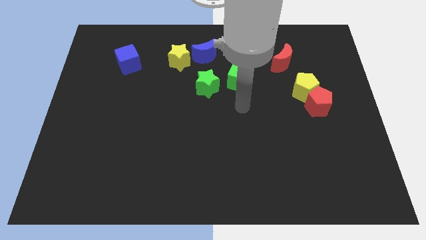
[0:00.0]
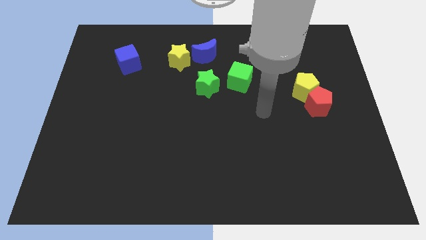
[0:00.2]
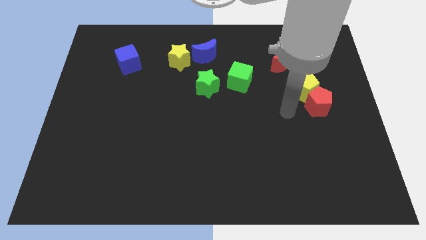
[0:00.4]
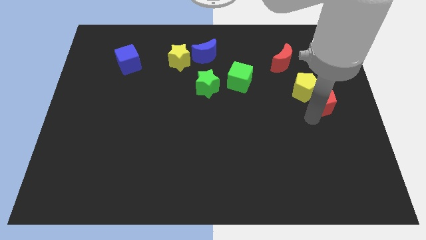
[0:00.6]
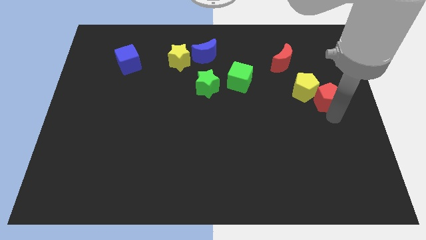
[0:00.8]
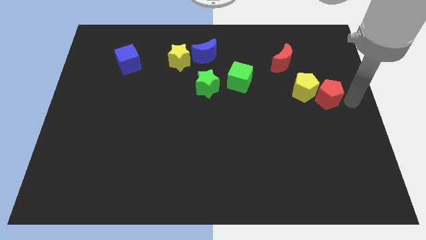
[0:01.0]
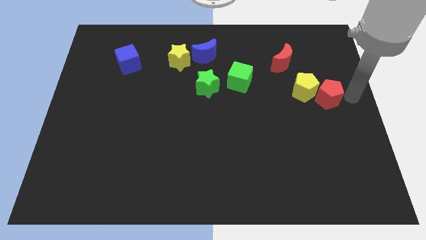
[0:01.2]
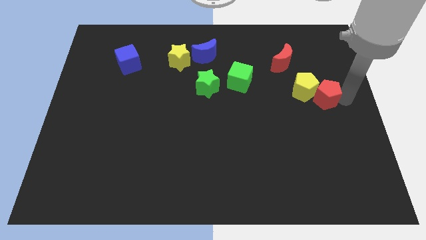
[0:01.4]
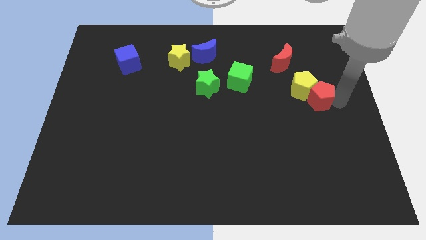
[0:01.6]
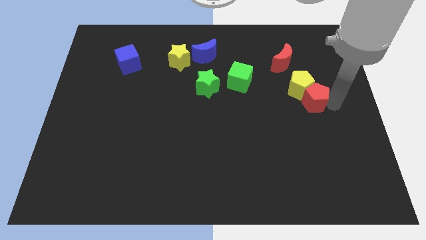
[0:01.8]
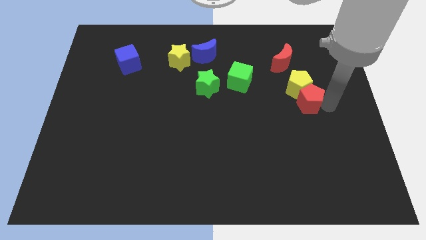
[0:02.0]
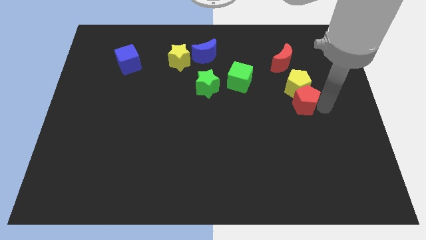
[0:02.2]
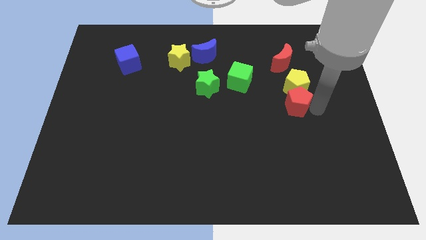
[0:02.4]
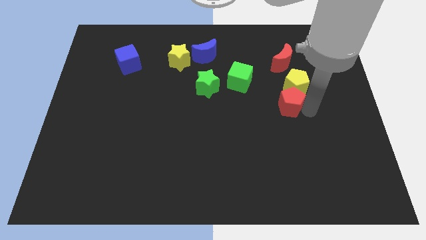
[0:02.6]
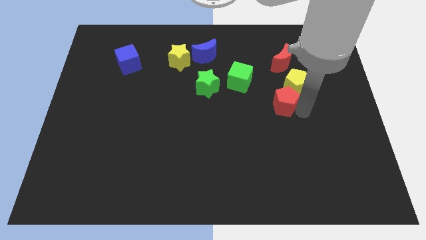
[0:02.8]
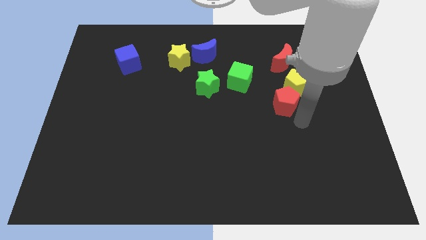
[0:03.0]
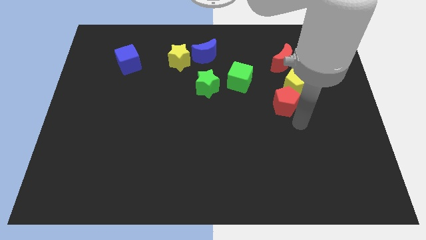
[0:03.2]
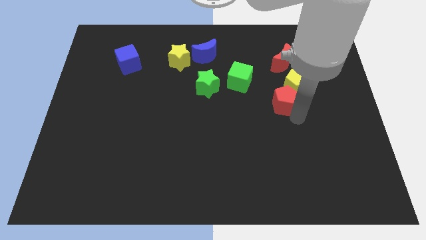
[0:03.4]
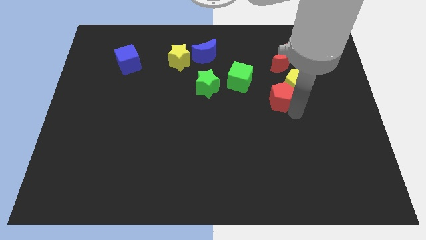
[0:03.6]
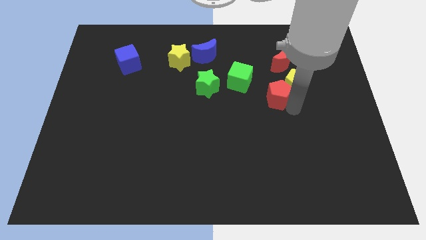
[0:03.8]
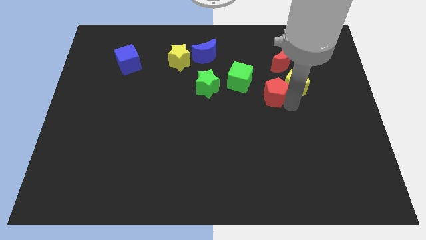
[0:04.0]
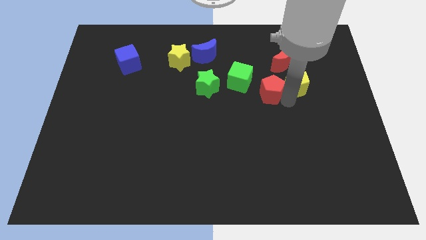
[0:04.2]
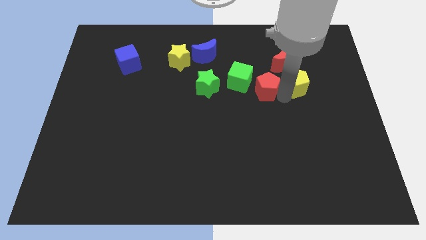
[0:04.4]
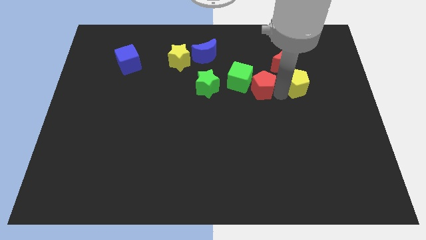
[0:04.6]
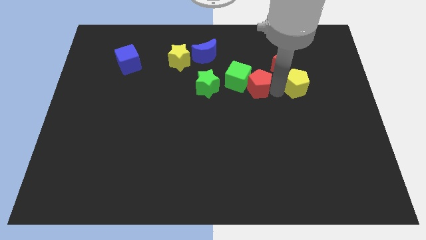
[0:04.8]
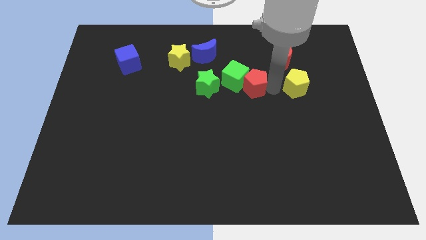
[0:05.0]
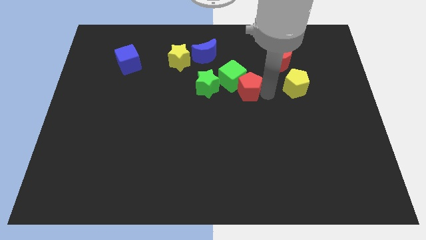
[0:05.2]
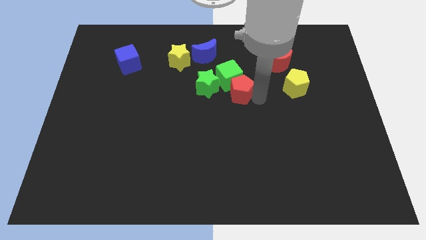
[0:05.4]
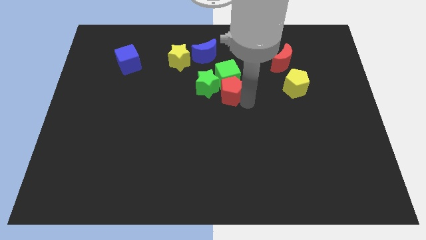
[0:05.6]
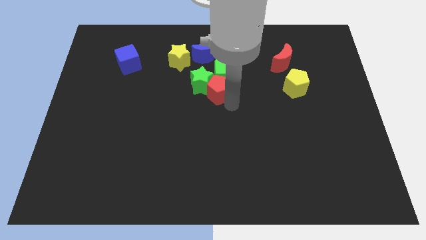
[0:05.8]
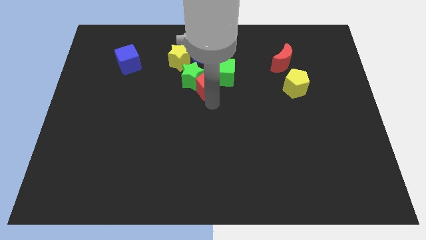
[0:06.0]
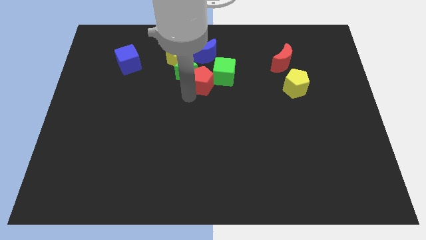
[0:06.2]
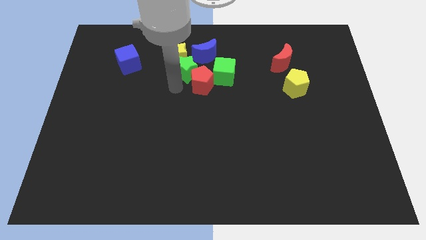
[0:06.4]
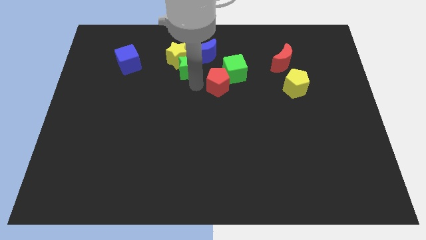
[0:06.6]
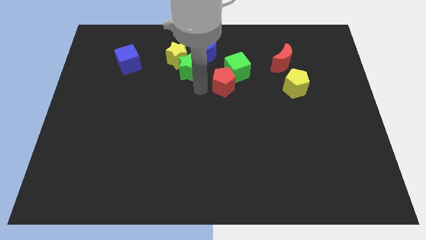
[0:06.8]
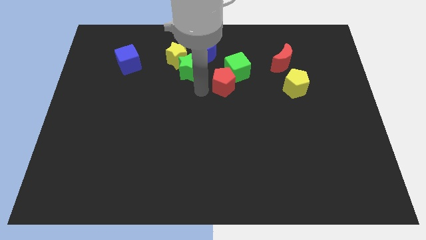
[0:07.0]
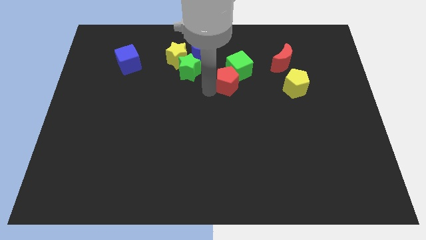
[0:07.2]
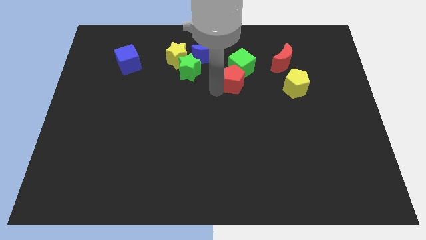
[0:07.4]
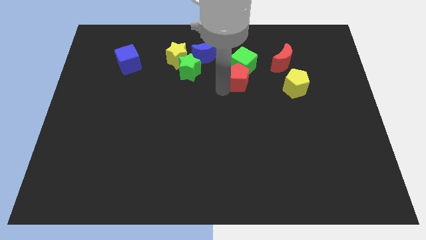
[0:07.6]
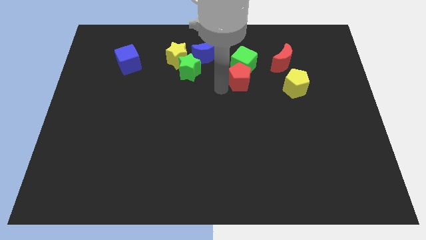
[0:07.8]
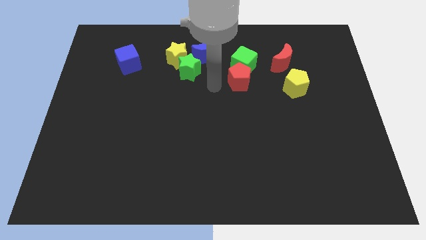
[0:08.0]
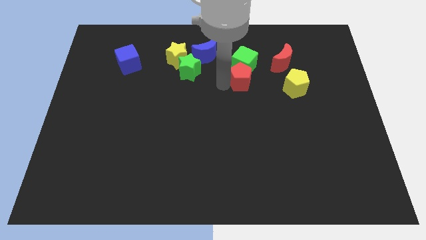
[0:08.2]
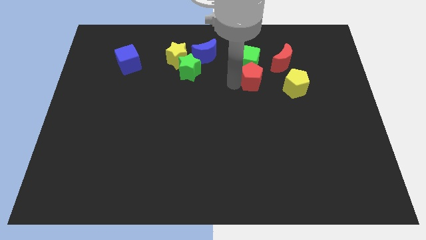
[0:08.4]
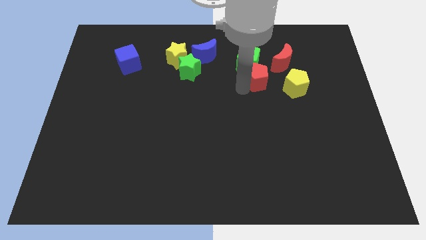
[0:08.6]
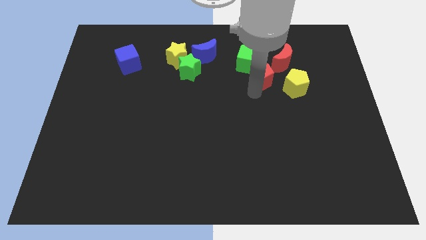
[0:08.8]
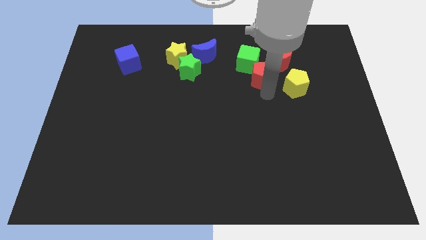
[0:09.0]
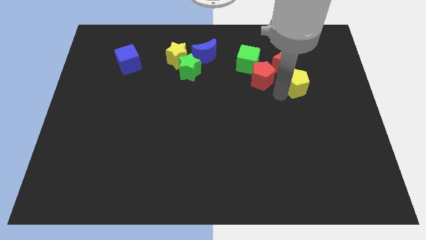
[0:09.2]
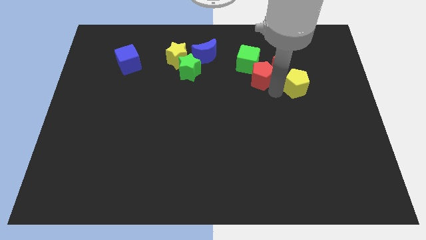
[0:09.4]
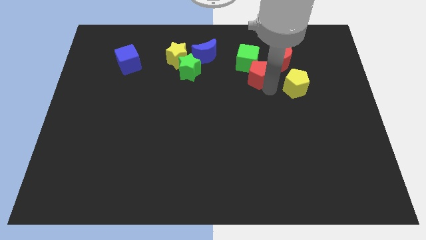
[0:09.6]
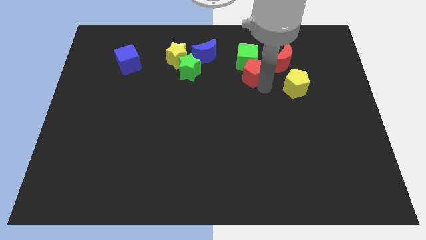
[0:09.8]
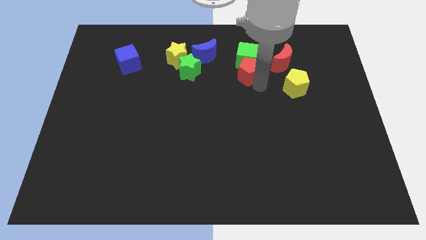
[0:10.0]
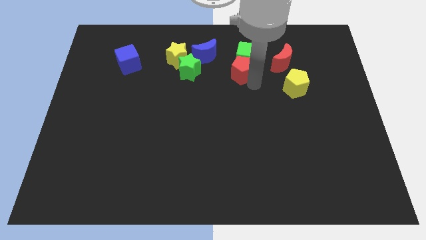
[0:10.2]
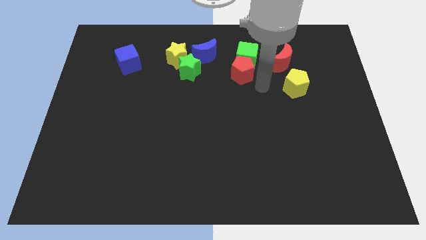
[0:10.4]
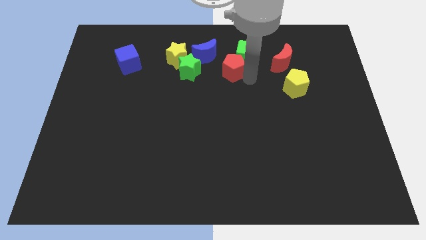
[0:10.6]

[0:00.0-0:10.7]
move the red pentagon to the right side of the yellow star

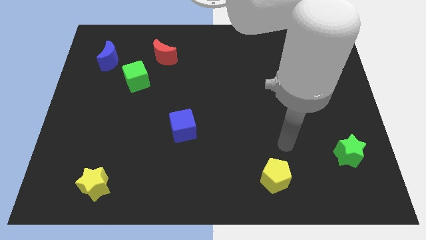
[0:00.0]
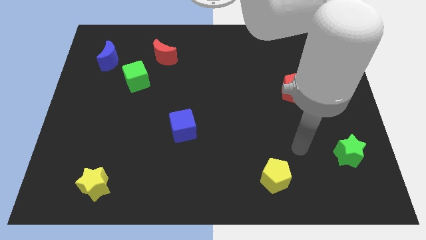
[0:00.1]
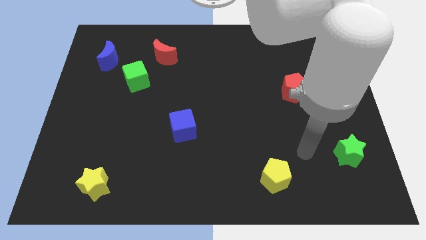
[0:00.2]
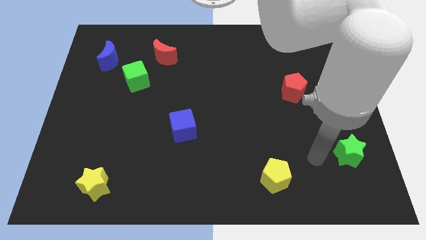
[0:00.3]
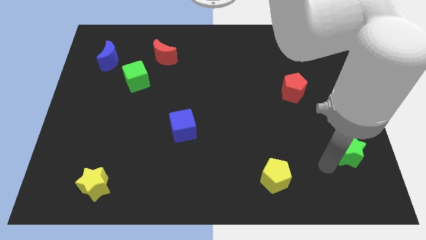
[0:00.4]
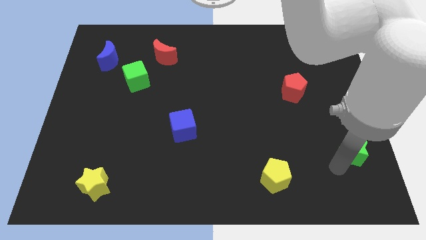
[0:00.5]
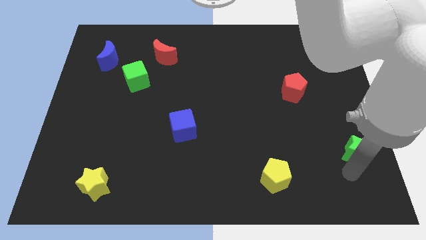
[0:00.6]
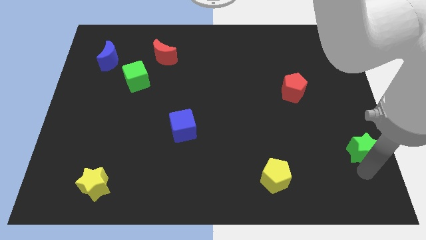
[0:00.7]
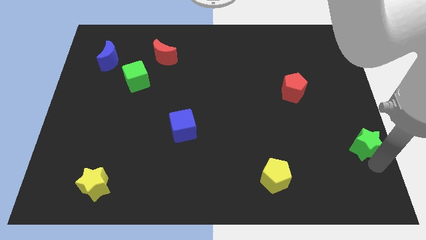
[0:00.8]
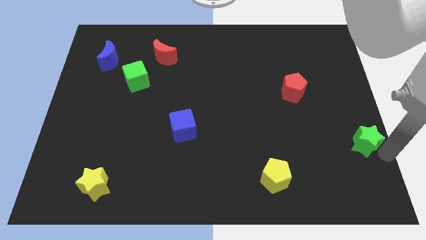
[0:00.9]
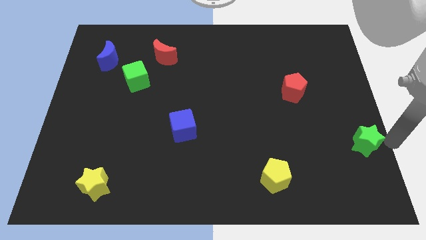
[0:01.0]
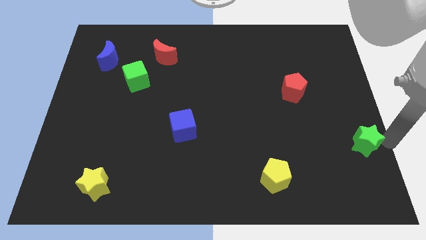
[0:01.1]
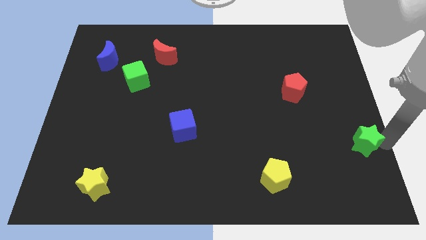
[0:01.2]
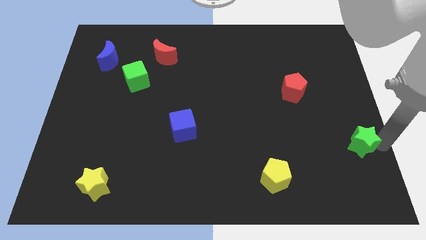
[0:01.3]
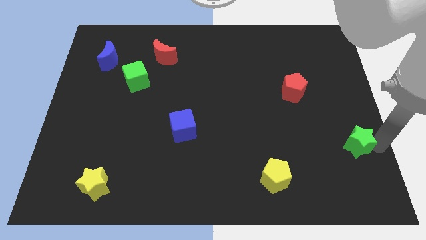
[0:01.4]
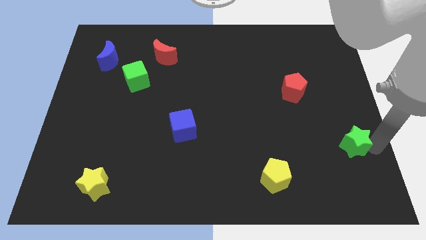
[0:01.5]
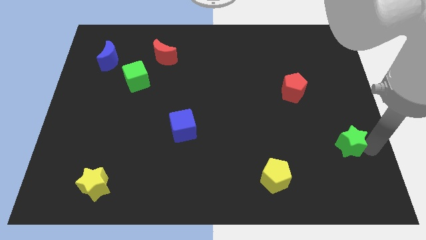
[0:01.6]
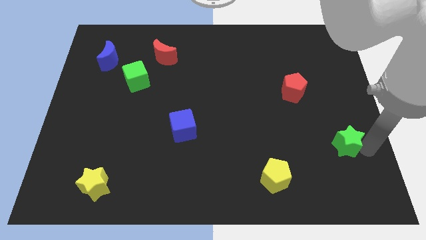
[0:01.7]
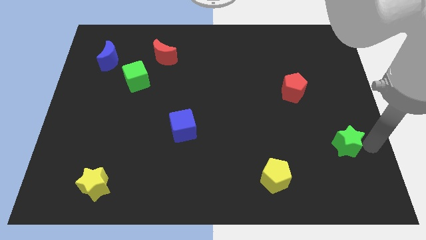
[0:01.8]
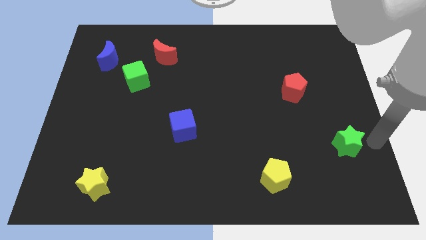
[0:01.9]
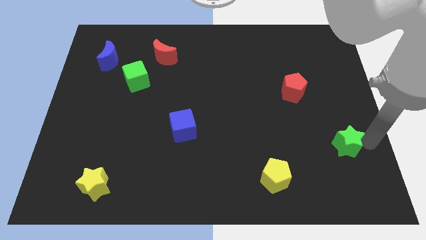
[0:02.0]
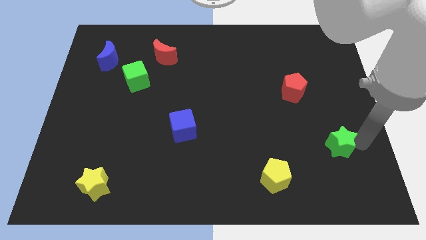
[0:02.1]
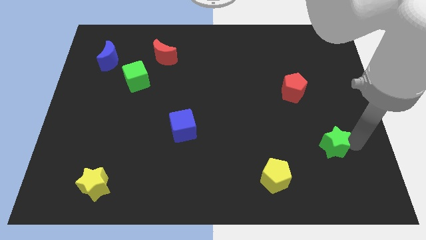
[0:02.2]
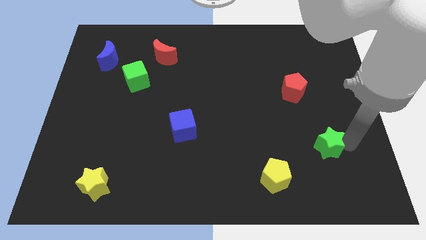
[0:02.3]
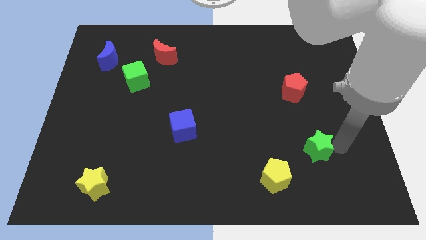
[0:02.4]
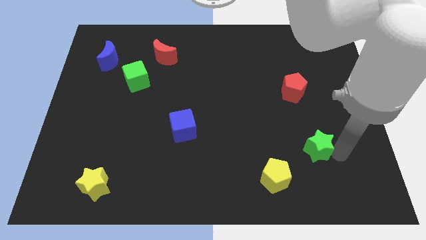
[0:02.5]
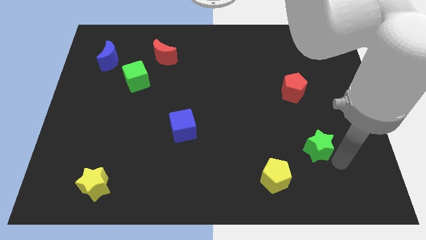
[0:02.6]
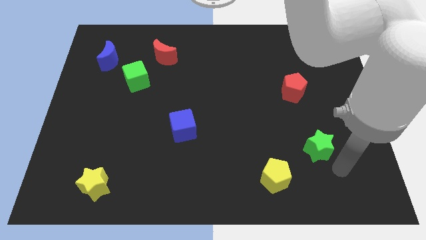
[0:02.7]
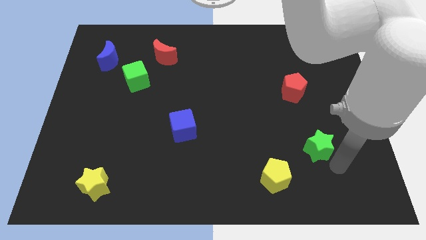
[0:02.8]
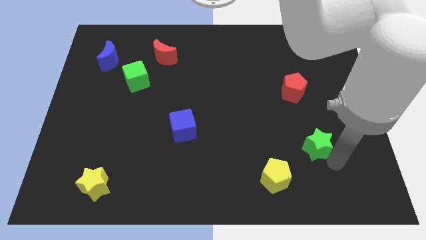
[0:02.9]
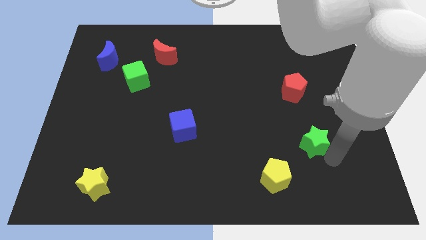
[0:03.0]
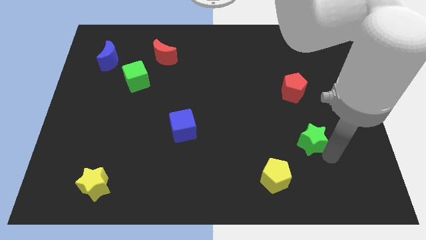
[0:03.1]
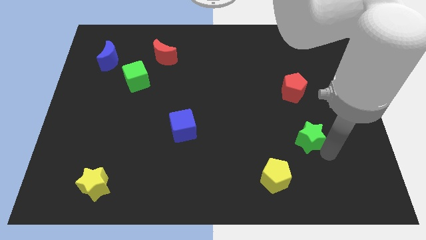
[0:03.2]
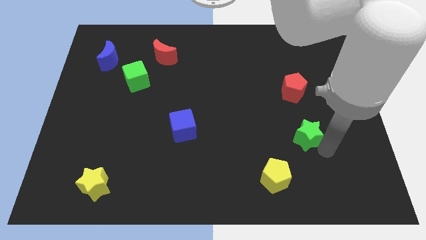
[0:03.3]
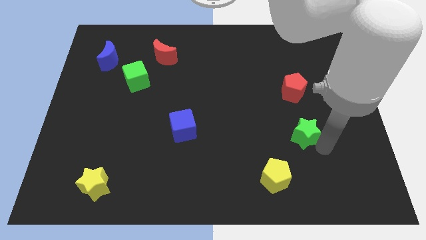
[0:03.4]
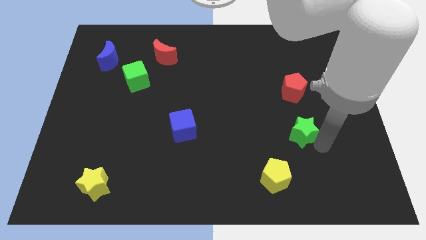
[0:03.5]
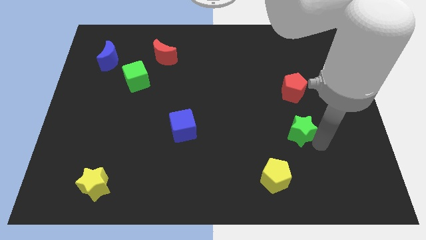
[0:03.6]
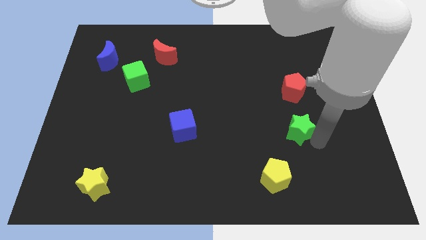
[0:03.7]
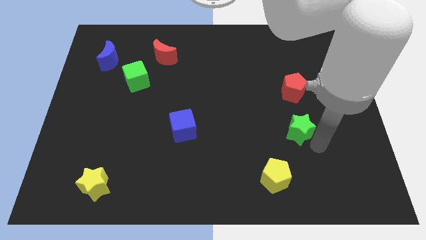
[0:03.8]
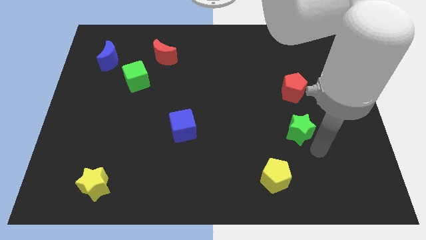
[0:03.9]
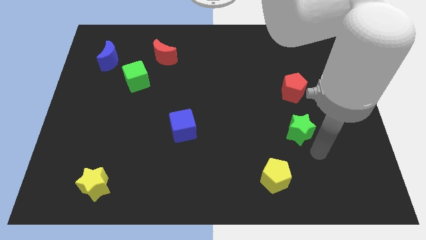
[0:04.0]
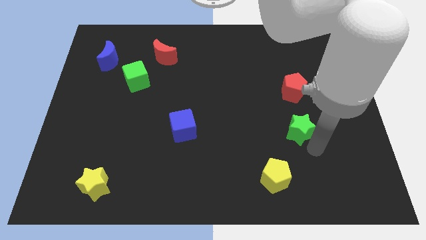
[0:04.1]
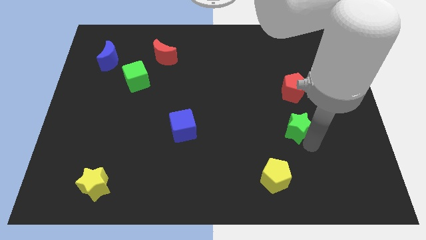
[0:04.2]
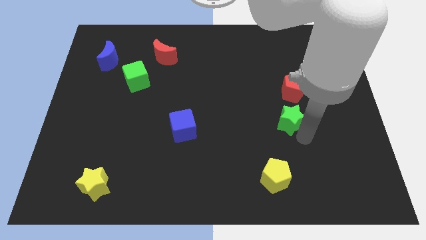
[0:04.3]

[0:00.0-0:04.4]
move the green star diagonally down and to the left of the red pentagon
